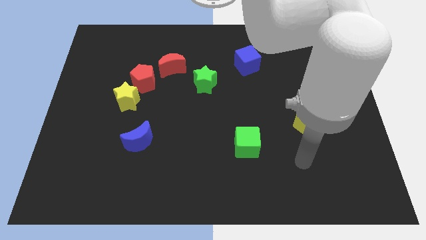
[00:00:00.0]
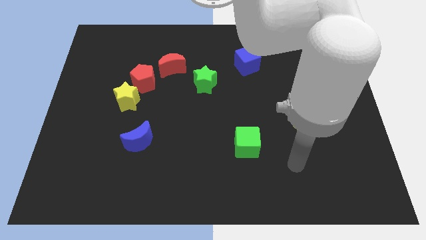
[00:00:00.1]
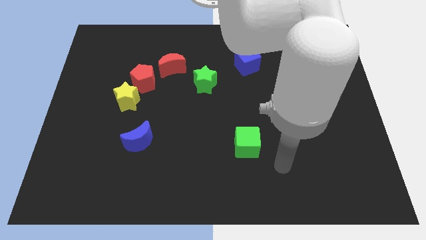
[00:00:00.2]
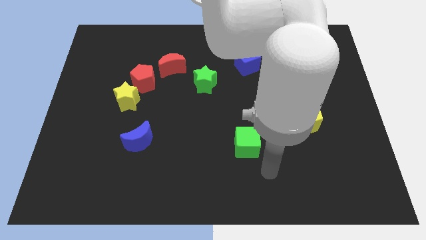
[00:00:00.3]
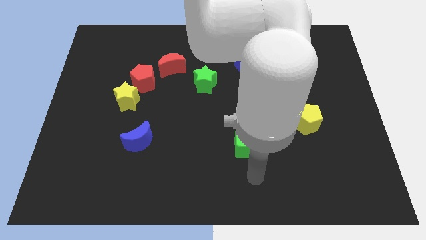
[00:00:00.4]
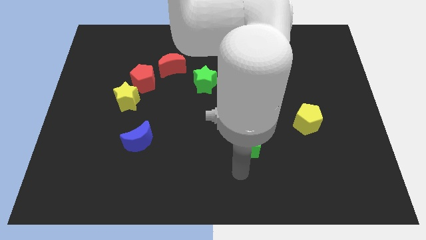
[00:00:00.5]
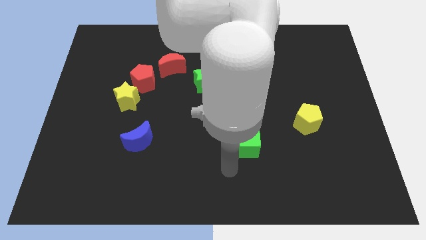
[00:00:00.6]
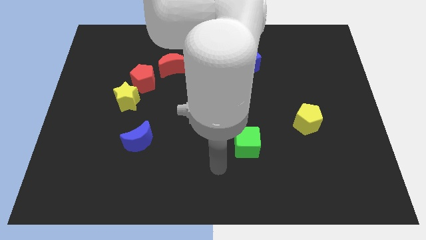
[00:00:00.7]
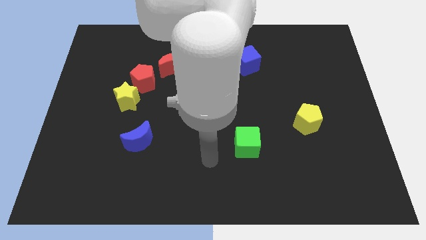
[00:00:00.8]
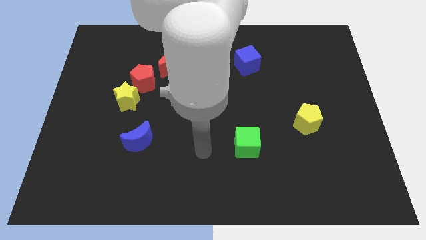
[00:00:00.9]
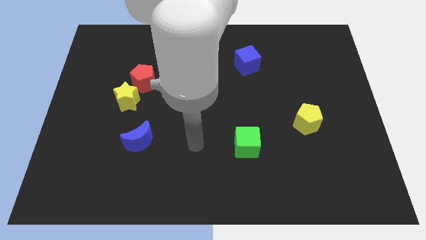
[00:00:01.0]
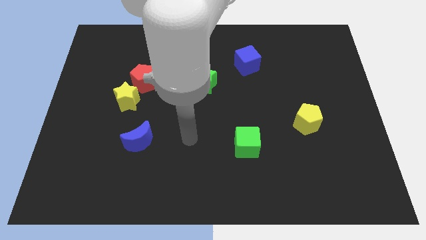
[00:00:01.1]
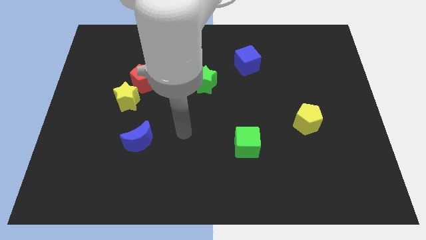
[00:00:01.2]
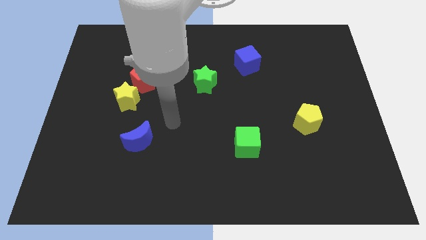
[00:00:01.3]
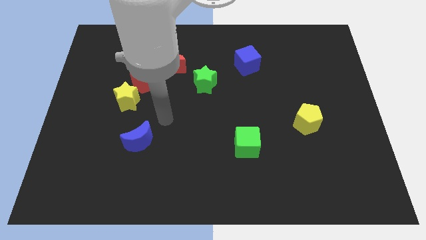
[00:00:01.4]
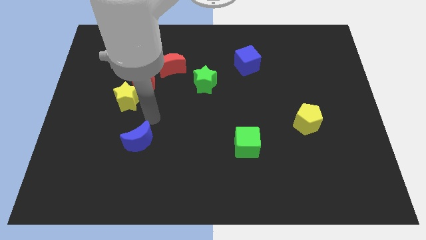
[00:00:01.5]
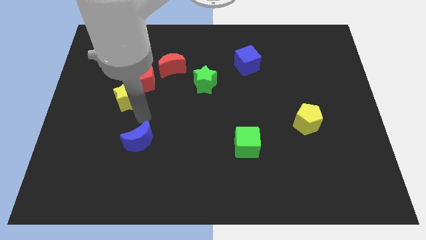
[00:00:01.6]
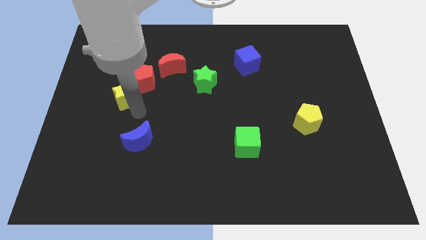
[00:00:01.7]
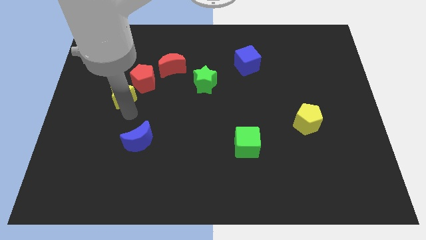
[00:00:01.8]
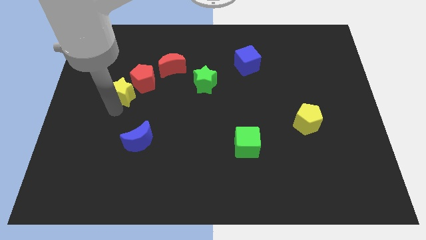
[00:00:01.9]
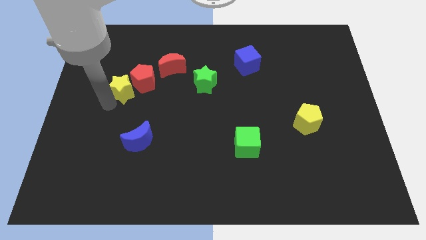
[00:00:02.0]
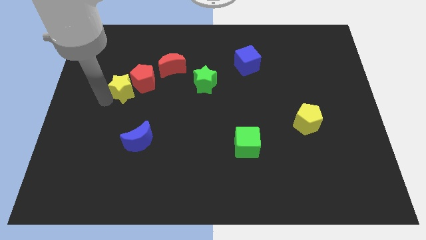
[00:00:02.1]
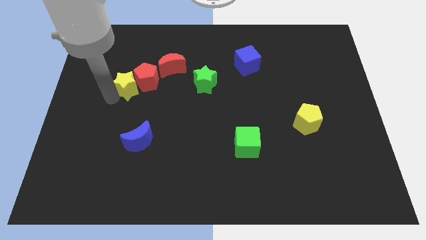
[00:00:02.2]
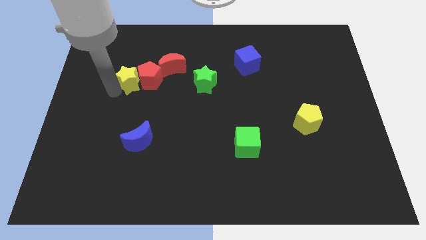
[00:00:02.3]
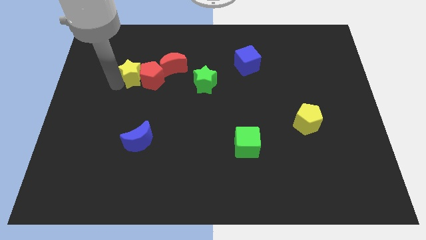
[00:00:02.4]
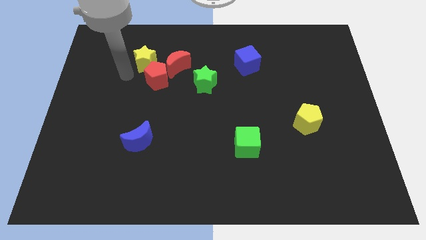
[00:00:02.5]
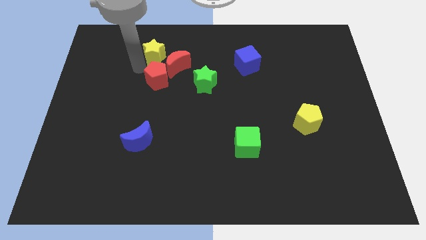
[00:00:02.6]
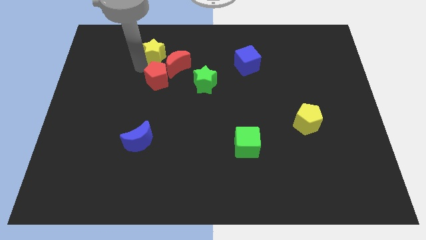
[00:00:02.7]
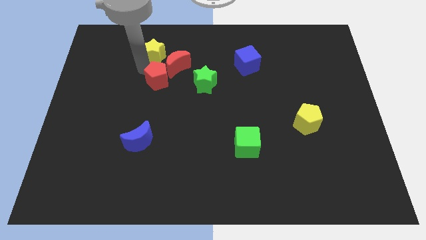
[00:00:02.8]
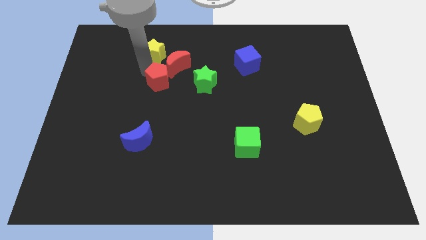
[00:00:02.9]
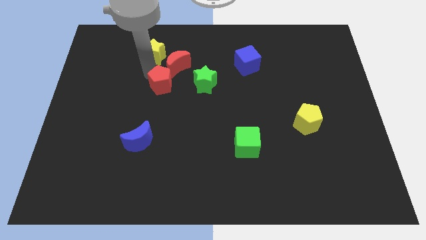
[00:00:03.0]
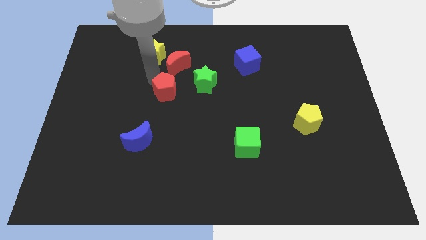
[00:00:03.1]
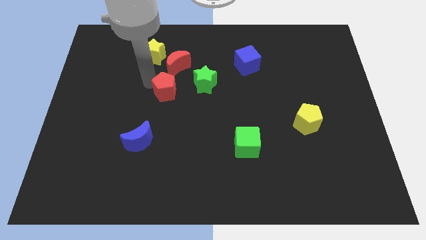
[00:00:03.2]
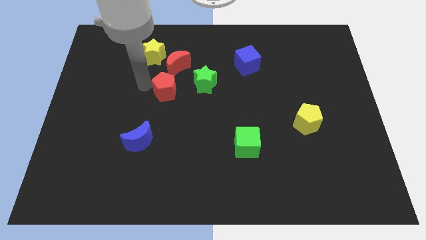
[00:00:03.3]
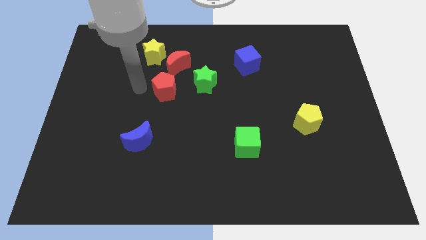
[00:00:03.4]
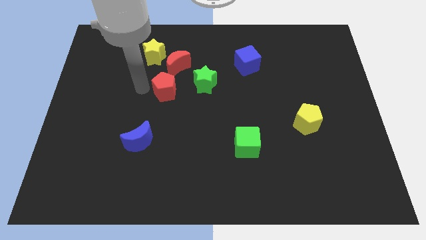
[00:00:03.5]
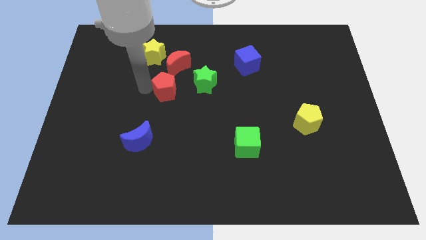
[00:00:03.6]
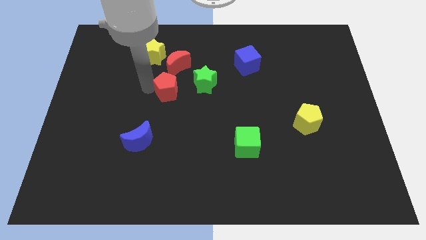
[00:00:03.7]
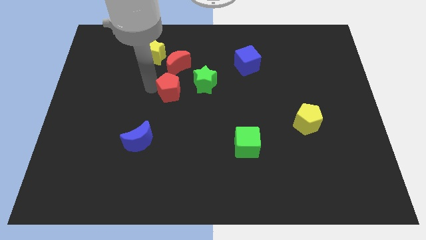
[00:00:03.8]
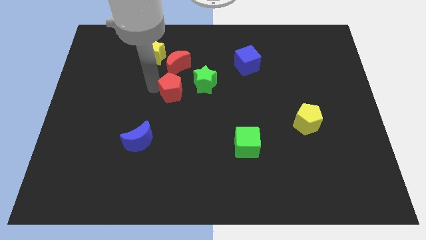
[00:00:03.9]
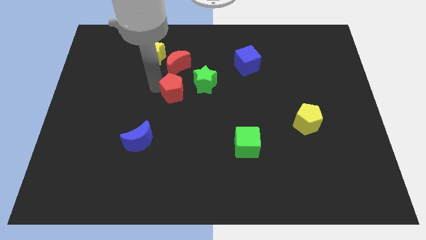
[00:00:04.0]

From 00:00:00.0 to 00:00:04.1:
move the red pentagon slightly right

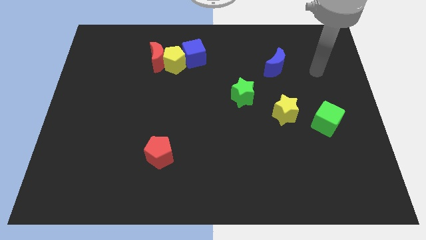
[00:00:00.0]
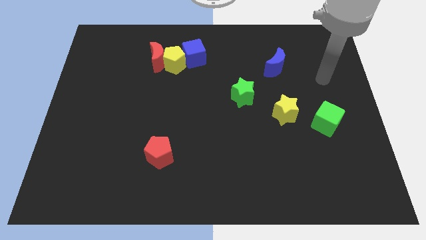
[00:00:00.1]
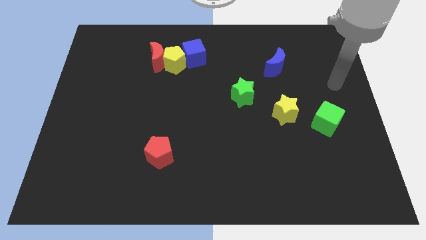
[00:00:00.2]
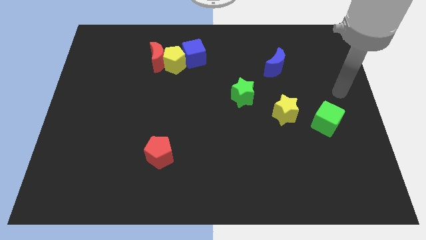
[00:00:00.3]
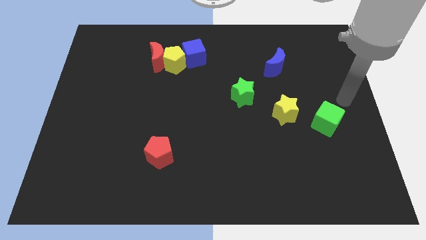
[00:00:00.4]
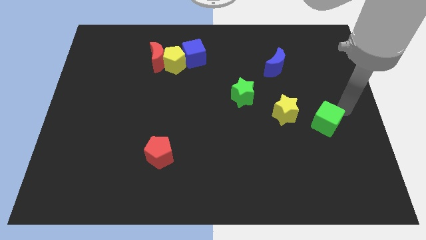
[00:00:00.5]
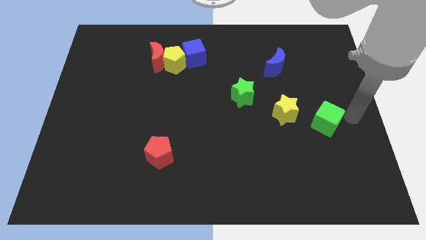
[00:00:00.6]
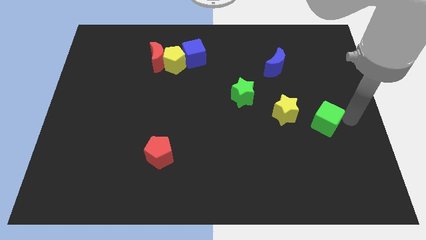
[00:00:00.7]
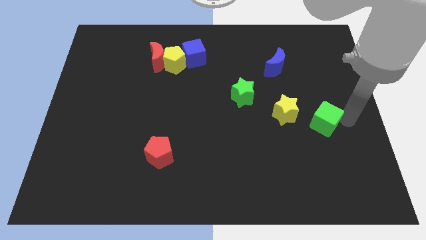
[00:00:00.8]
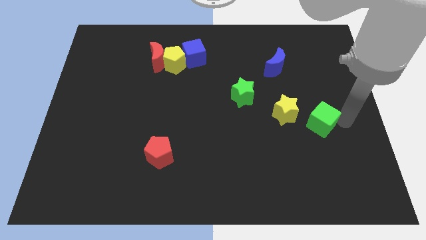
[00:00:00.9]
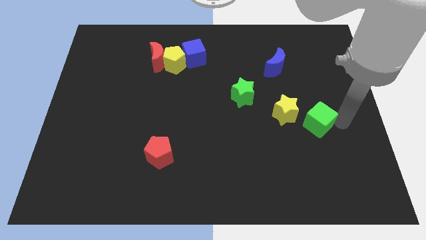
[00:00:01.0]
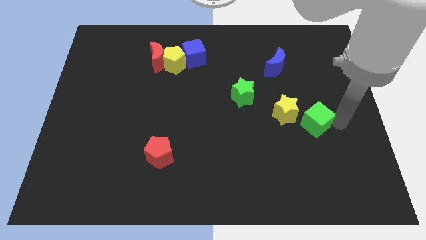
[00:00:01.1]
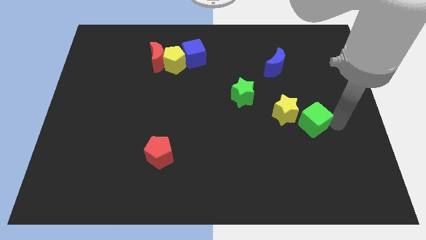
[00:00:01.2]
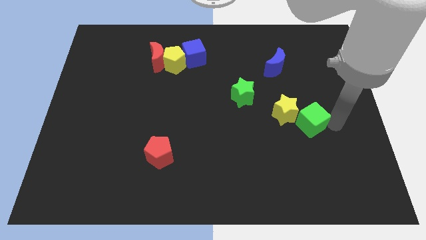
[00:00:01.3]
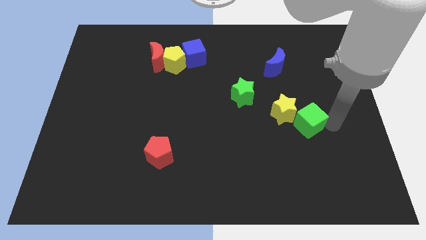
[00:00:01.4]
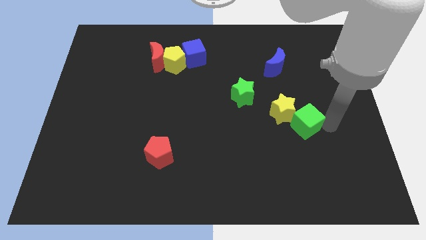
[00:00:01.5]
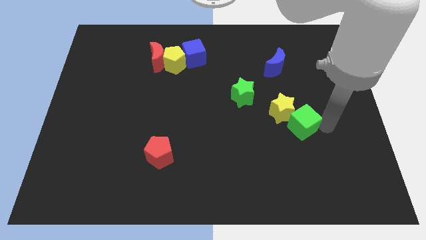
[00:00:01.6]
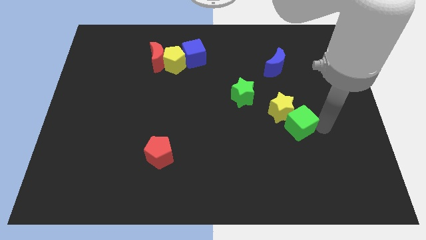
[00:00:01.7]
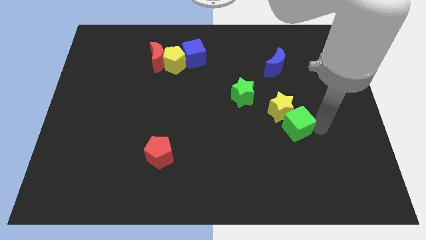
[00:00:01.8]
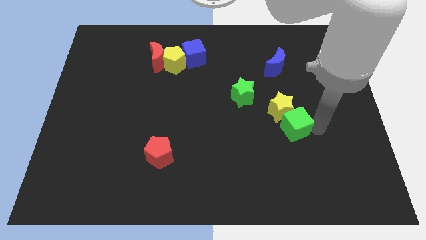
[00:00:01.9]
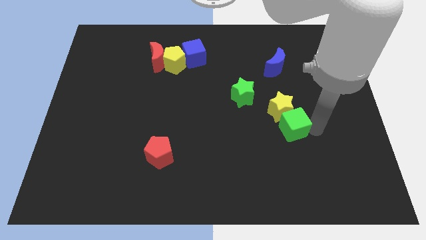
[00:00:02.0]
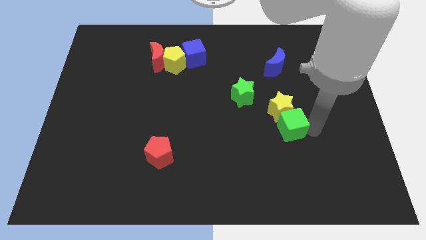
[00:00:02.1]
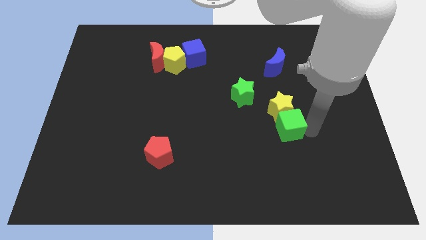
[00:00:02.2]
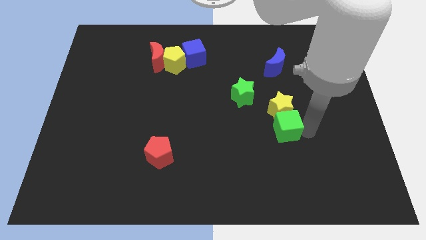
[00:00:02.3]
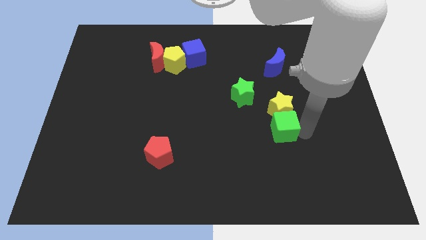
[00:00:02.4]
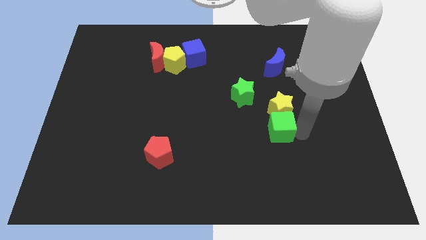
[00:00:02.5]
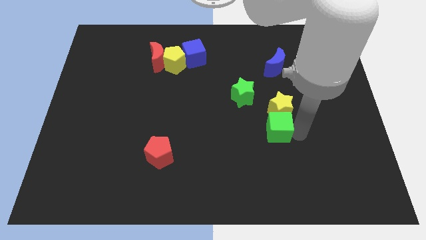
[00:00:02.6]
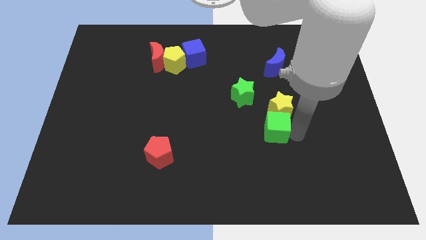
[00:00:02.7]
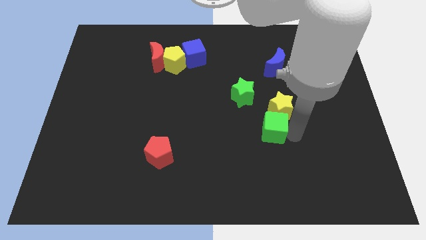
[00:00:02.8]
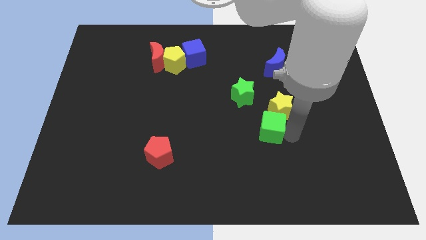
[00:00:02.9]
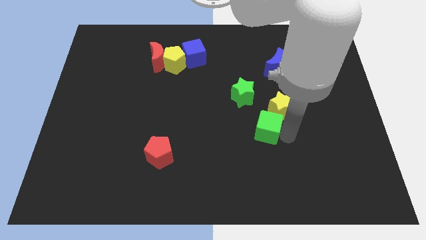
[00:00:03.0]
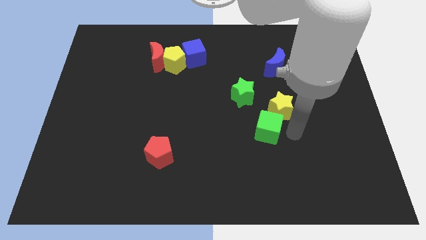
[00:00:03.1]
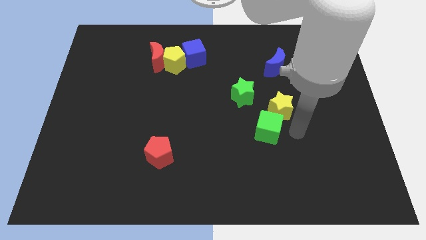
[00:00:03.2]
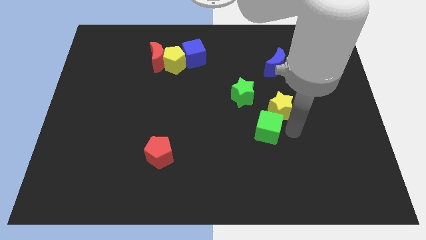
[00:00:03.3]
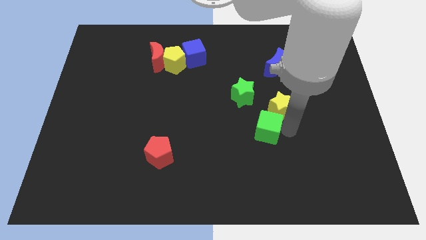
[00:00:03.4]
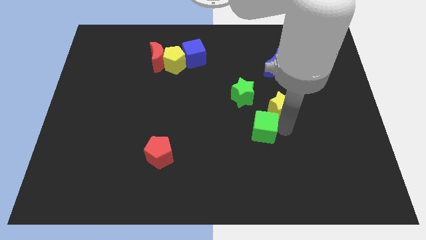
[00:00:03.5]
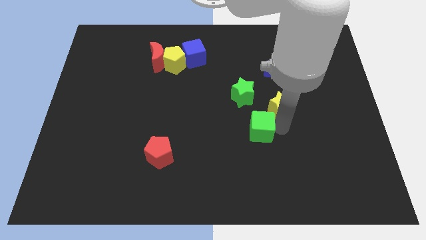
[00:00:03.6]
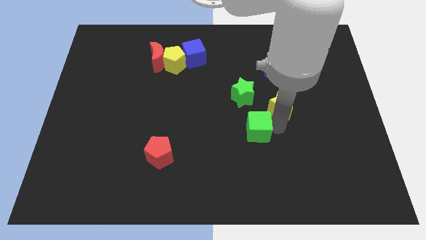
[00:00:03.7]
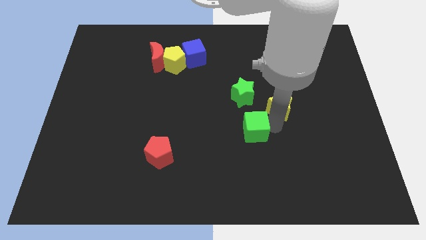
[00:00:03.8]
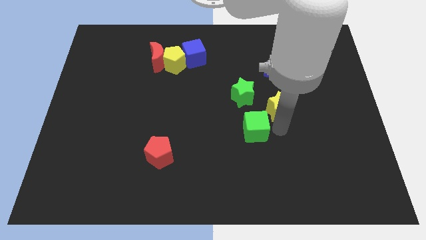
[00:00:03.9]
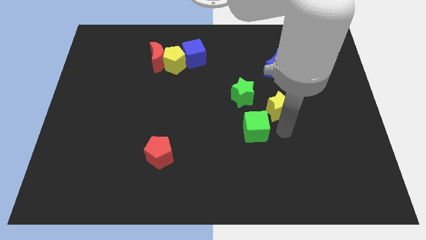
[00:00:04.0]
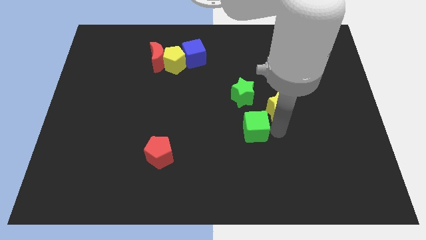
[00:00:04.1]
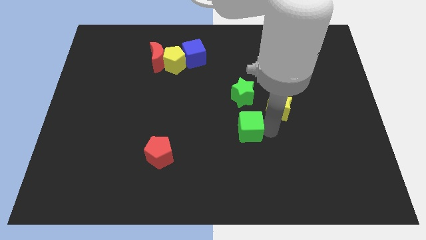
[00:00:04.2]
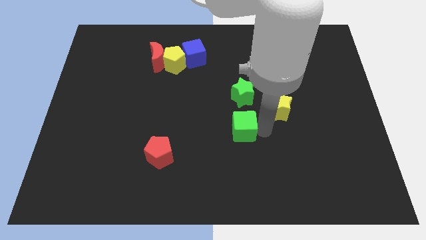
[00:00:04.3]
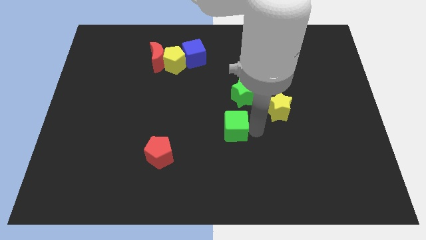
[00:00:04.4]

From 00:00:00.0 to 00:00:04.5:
push the green cube to the left
